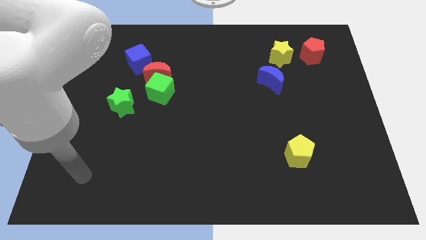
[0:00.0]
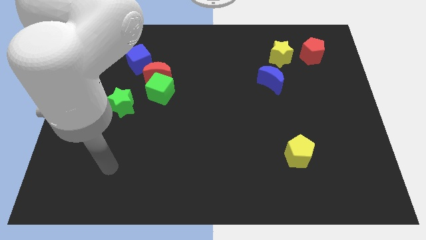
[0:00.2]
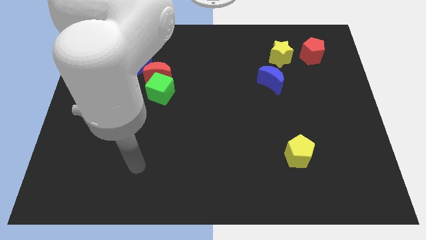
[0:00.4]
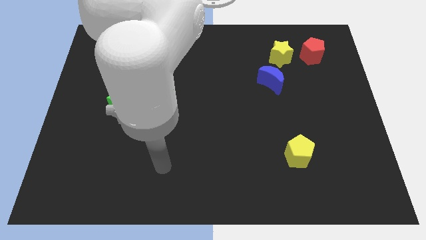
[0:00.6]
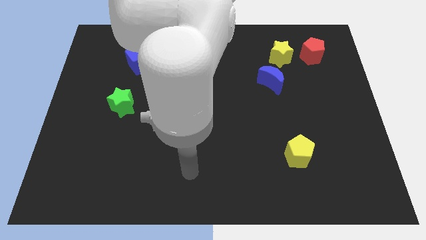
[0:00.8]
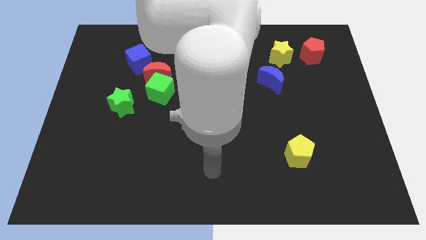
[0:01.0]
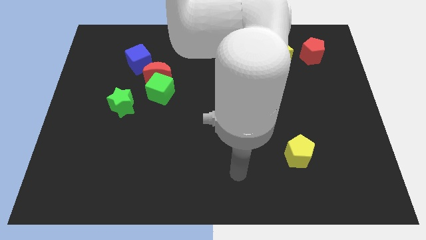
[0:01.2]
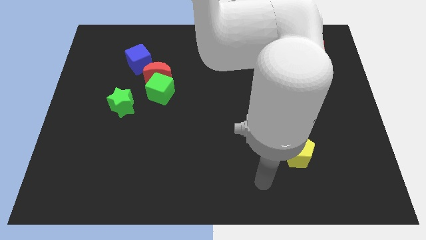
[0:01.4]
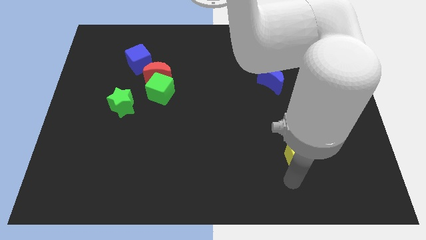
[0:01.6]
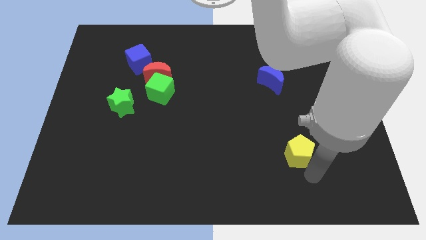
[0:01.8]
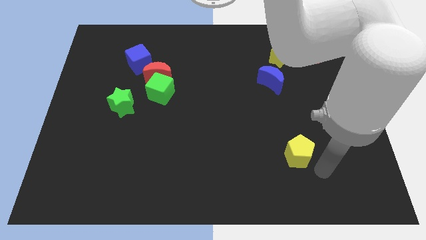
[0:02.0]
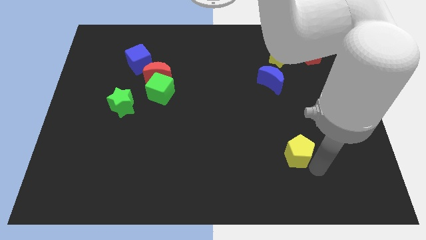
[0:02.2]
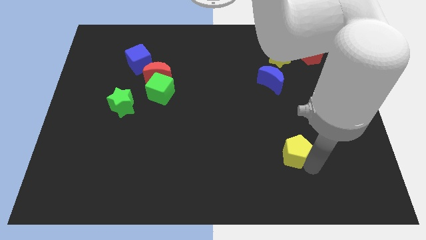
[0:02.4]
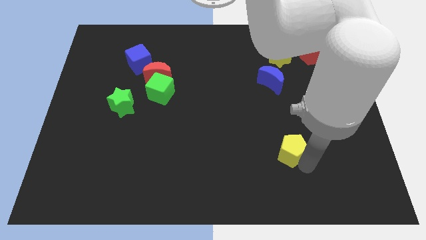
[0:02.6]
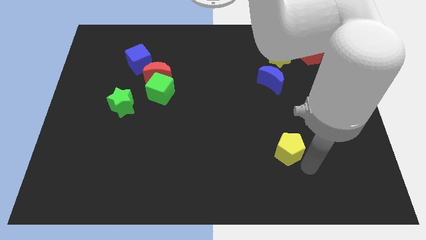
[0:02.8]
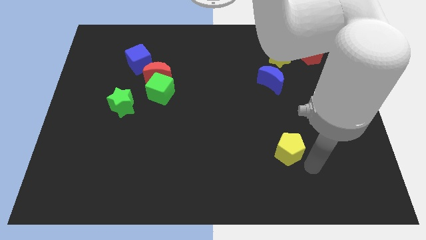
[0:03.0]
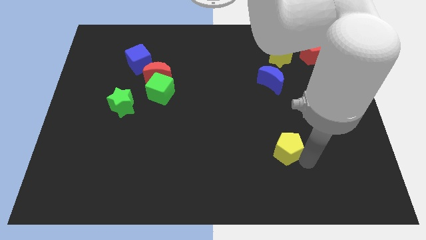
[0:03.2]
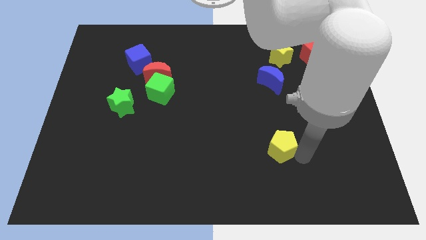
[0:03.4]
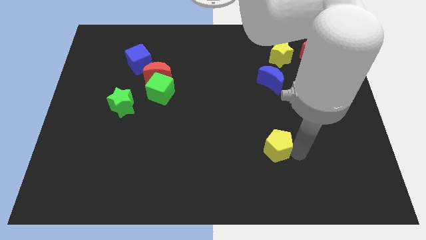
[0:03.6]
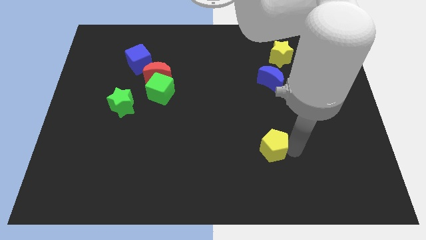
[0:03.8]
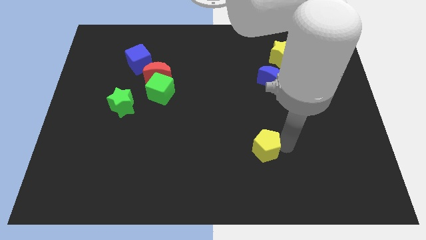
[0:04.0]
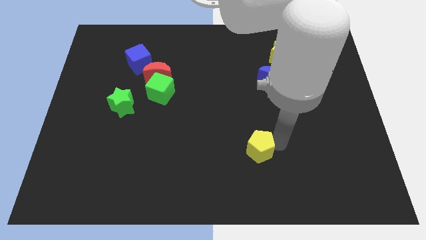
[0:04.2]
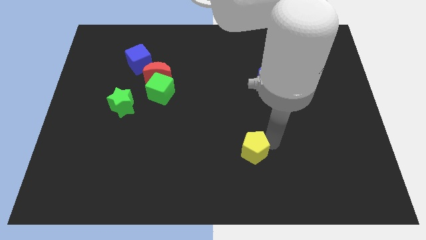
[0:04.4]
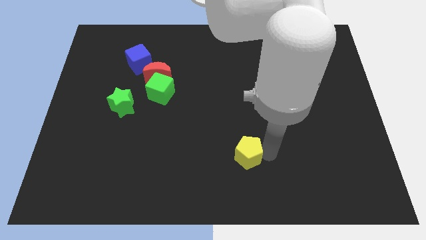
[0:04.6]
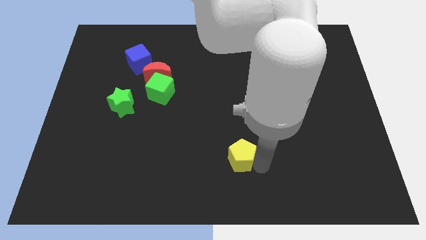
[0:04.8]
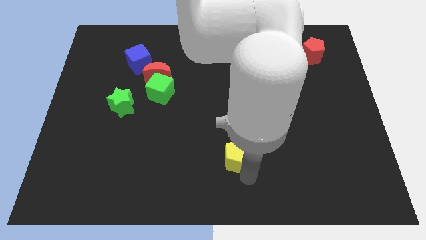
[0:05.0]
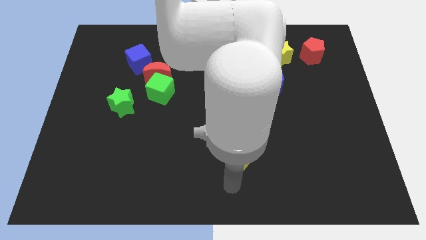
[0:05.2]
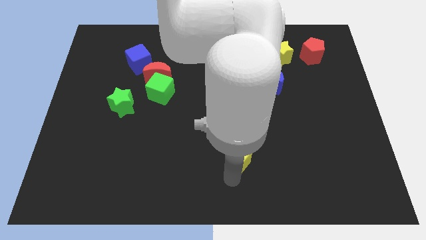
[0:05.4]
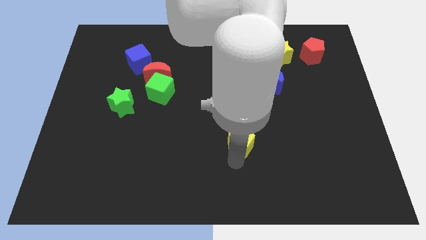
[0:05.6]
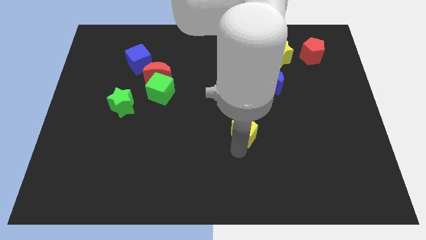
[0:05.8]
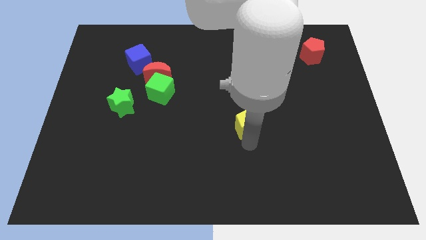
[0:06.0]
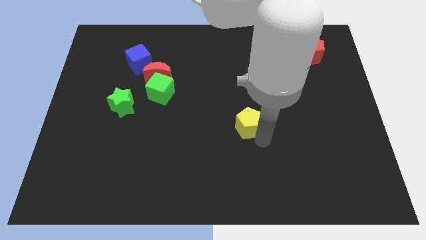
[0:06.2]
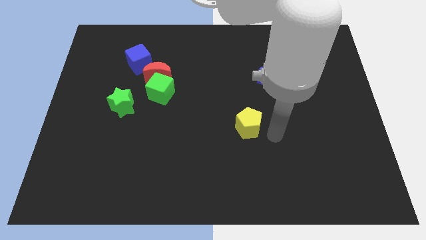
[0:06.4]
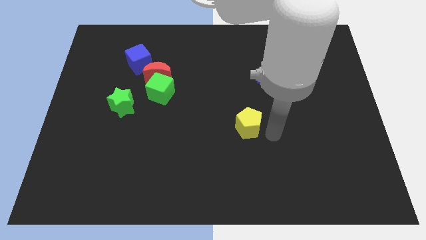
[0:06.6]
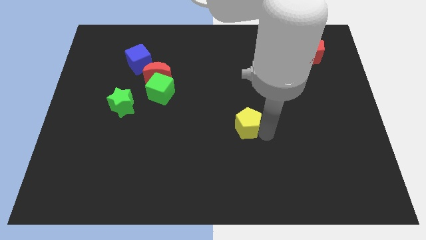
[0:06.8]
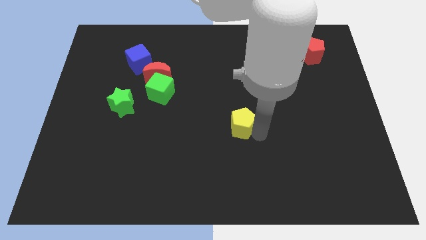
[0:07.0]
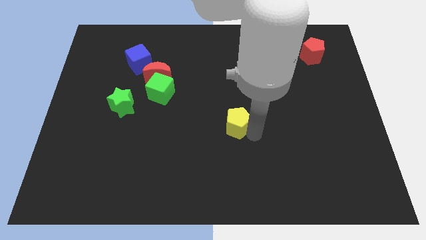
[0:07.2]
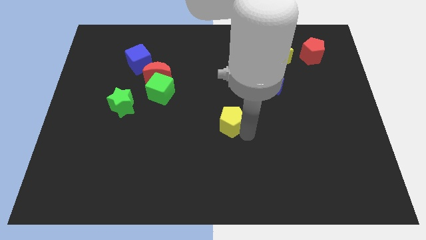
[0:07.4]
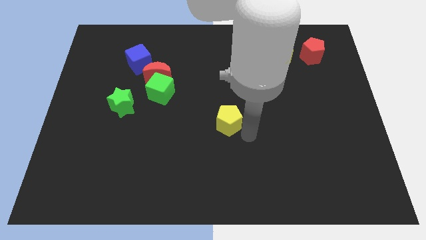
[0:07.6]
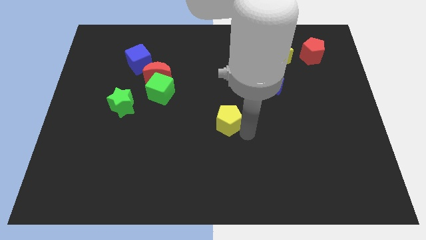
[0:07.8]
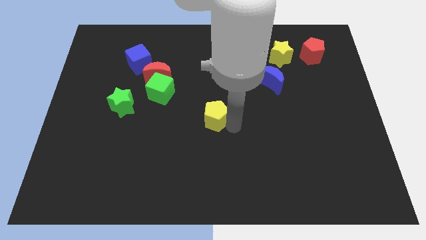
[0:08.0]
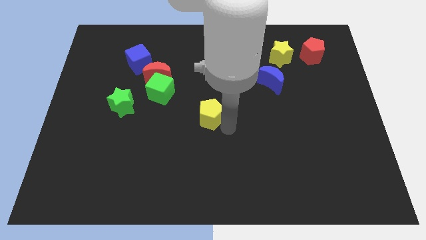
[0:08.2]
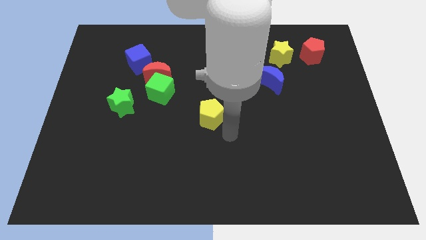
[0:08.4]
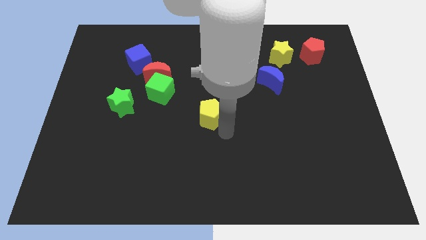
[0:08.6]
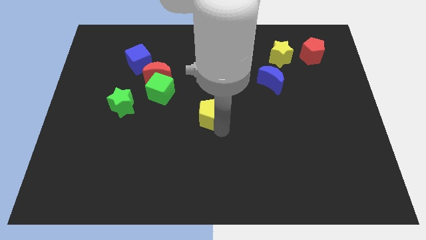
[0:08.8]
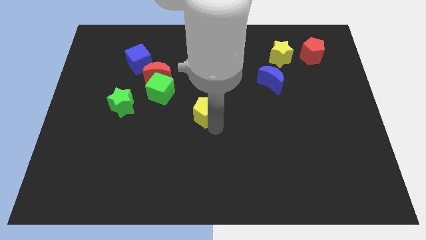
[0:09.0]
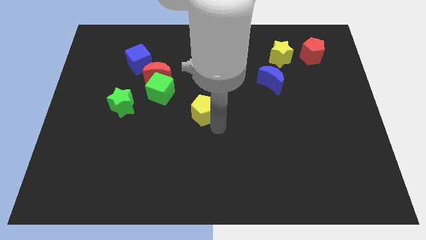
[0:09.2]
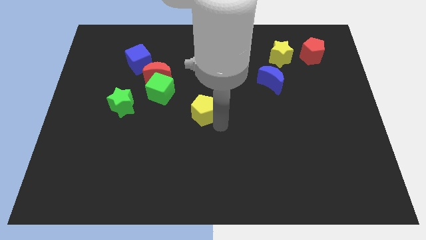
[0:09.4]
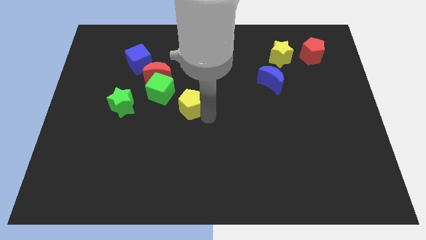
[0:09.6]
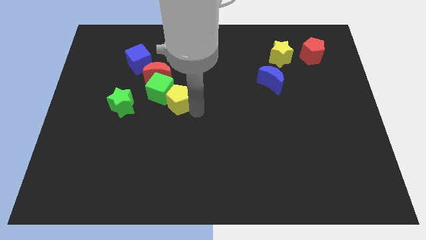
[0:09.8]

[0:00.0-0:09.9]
slide the yellow pentagon towards the green cube

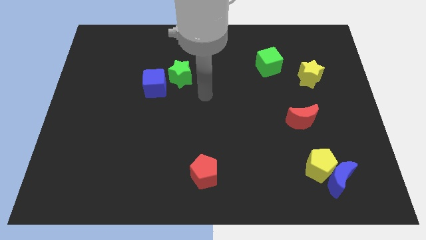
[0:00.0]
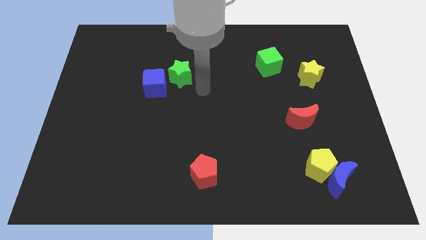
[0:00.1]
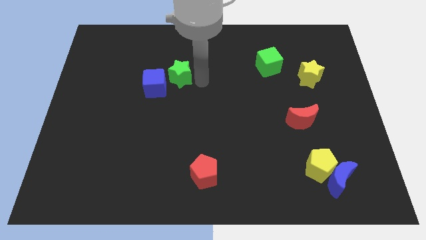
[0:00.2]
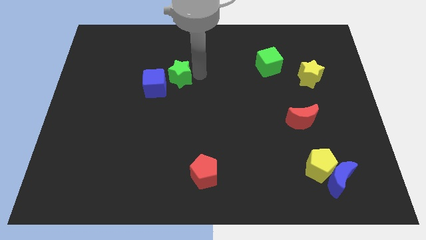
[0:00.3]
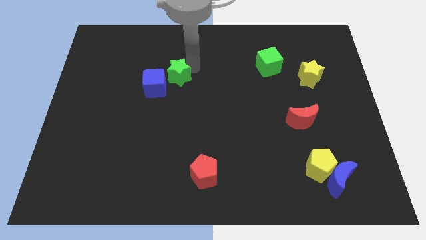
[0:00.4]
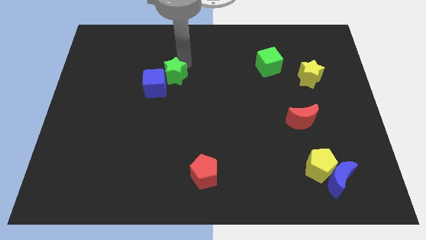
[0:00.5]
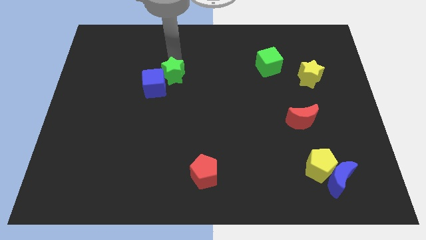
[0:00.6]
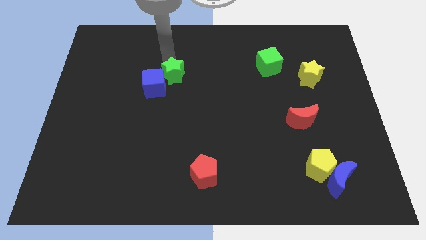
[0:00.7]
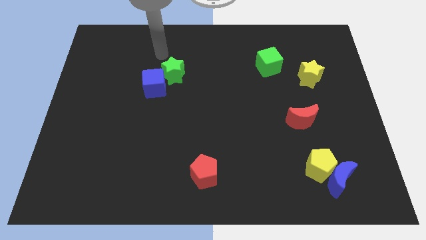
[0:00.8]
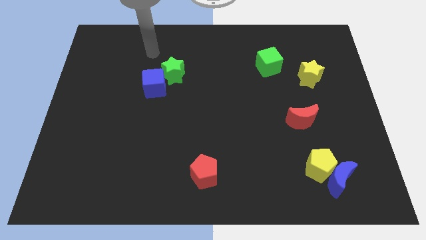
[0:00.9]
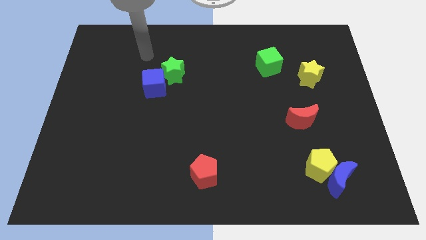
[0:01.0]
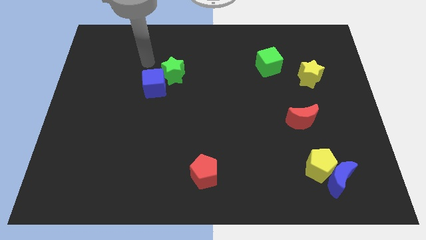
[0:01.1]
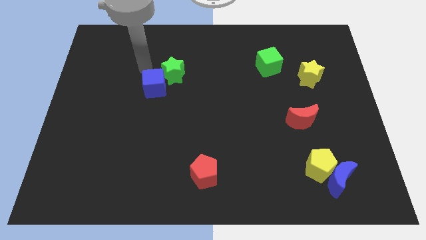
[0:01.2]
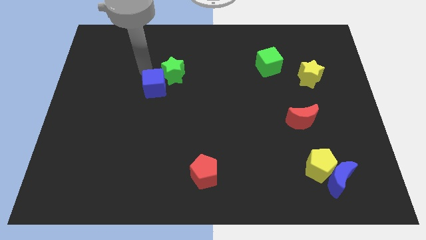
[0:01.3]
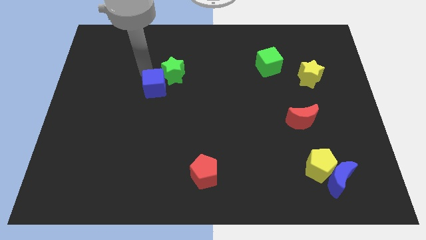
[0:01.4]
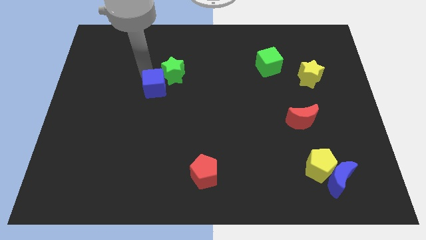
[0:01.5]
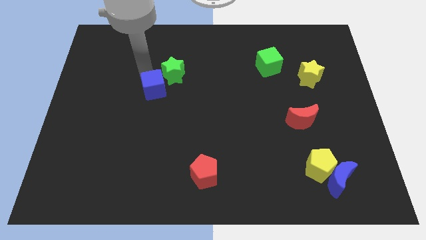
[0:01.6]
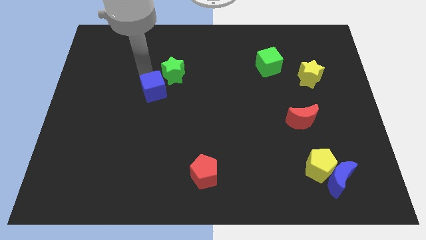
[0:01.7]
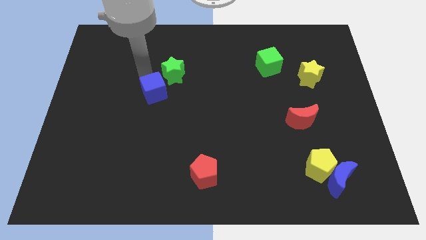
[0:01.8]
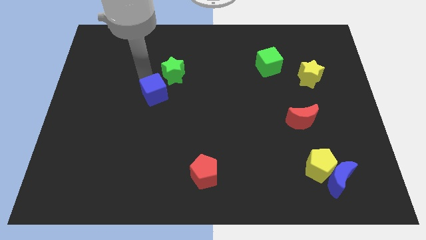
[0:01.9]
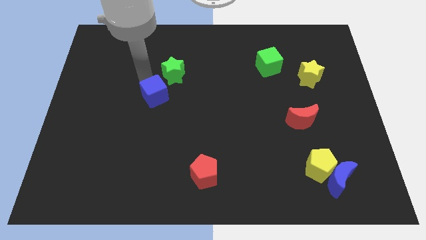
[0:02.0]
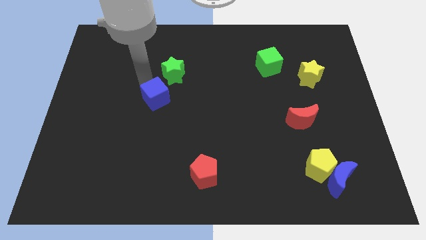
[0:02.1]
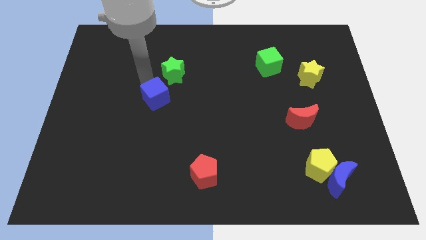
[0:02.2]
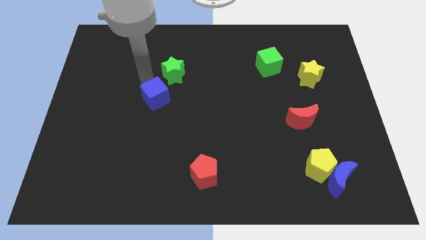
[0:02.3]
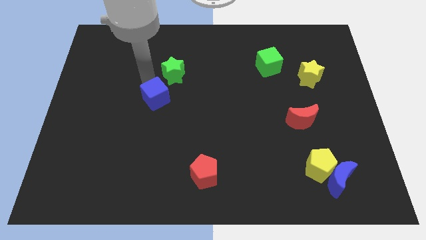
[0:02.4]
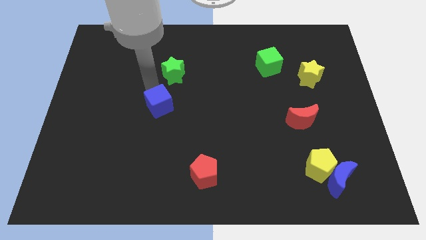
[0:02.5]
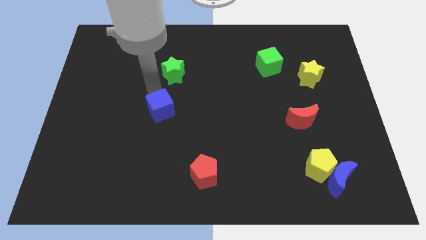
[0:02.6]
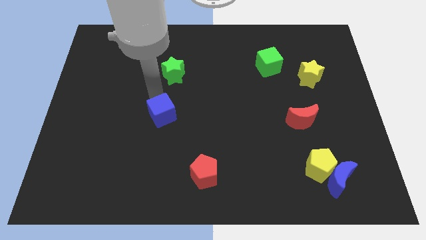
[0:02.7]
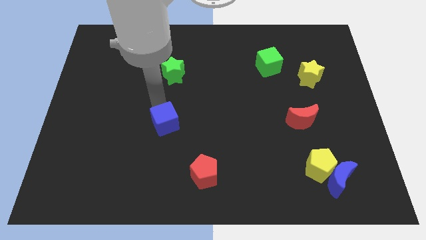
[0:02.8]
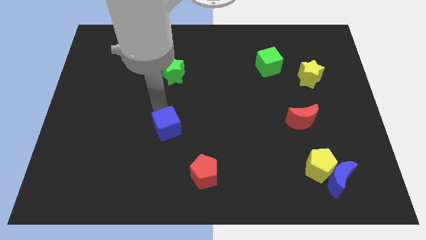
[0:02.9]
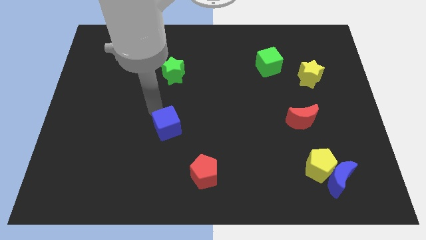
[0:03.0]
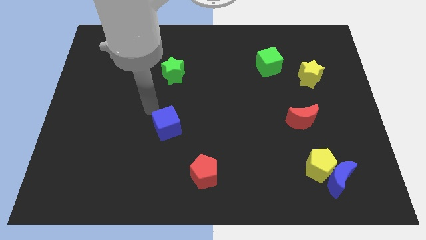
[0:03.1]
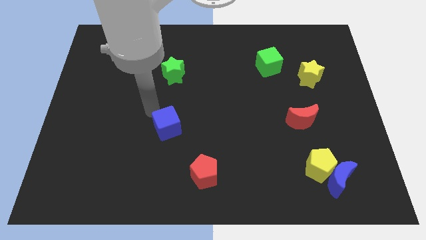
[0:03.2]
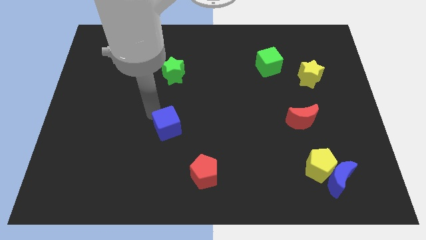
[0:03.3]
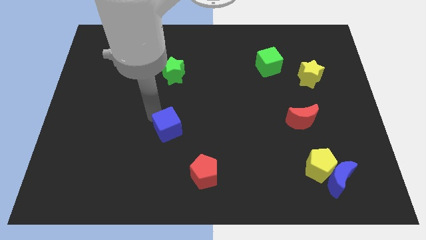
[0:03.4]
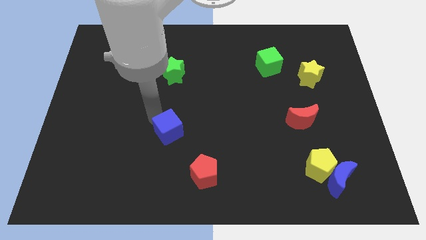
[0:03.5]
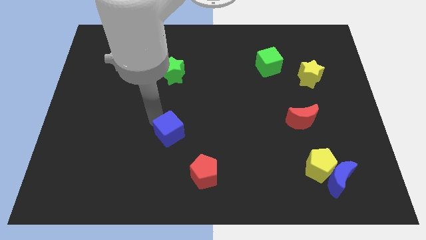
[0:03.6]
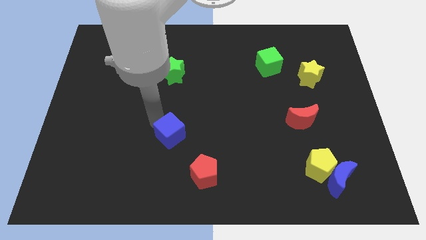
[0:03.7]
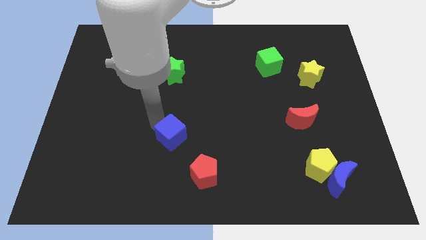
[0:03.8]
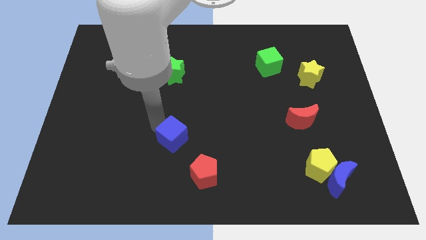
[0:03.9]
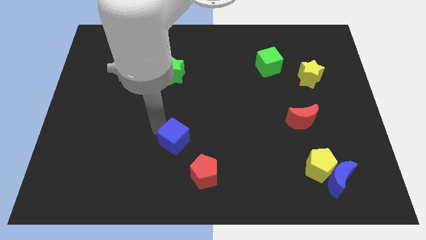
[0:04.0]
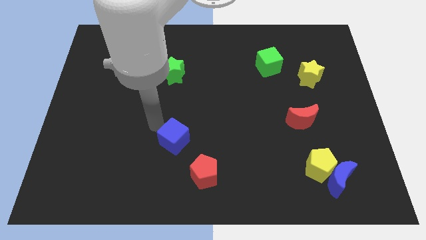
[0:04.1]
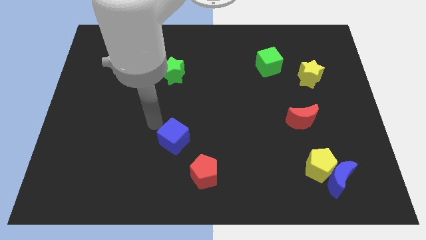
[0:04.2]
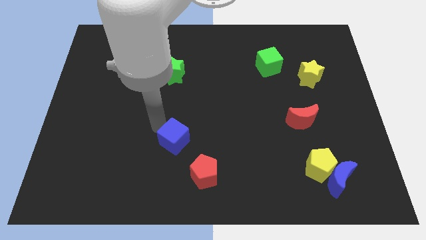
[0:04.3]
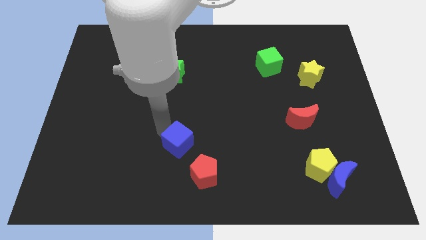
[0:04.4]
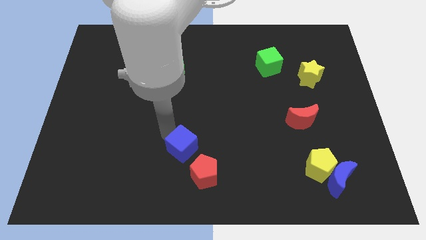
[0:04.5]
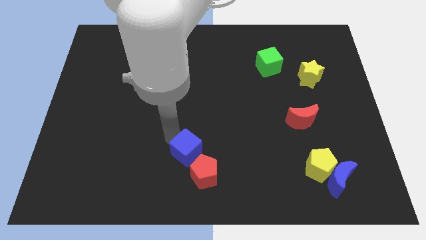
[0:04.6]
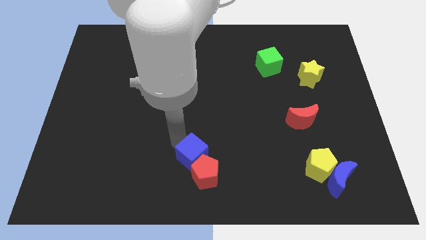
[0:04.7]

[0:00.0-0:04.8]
slide the blue cube close to the red pentagon
